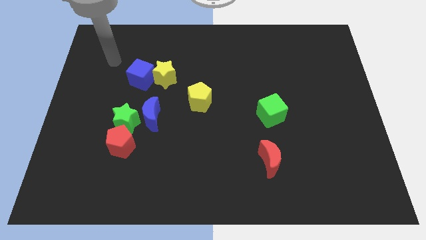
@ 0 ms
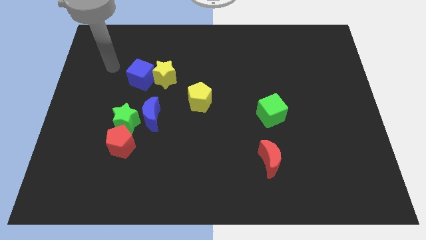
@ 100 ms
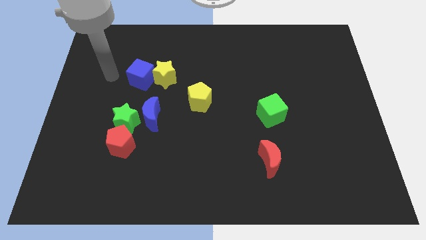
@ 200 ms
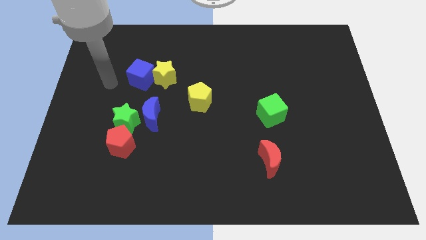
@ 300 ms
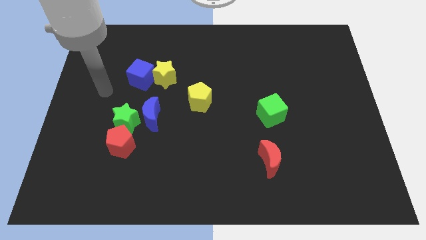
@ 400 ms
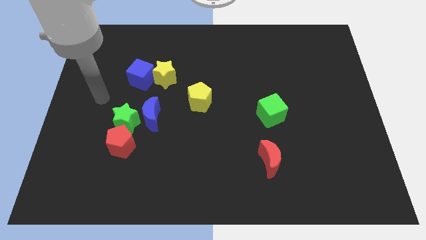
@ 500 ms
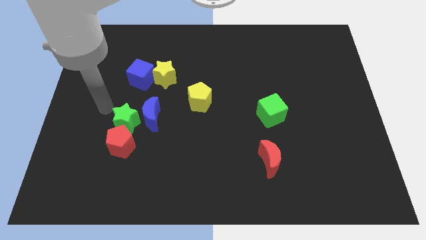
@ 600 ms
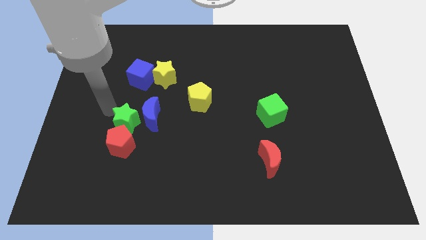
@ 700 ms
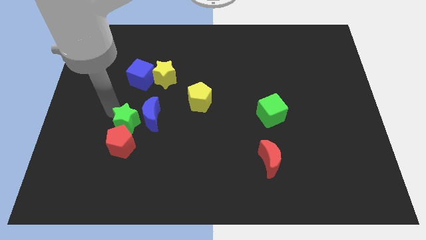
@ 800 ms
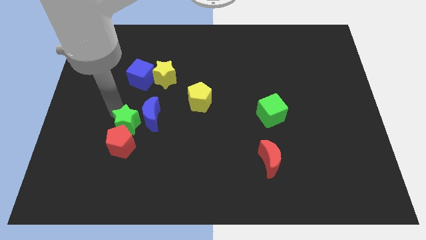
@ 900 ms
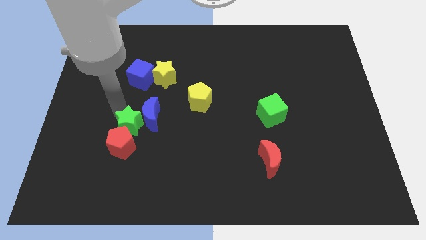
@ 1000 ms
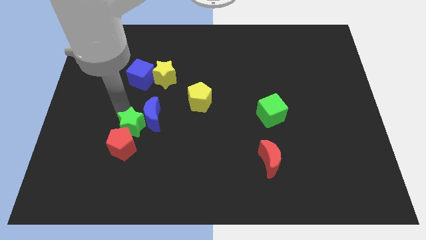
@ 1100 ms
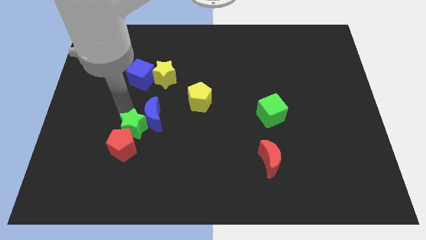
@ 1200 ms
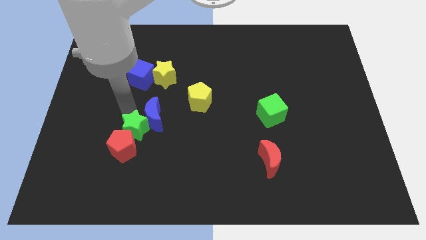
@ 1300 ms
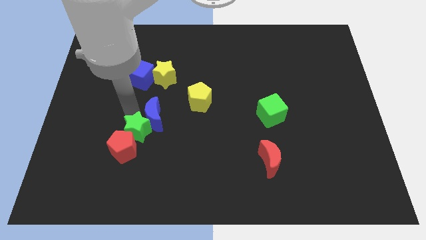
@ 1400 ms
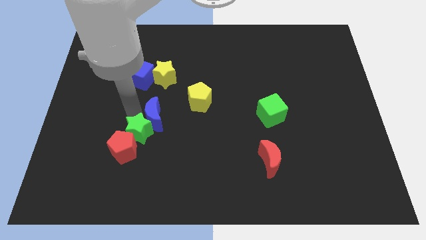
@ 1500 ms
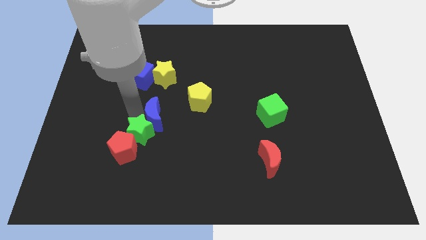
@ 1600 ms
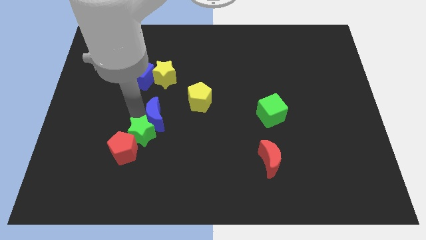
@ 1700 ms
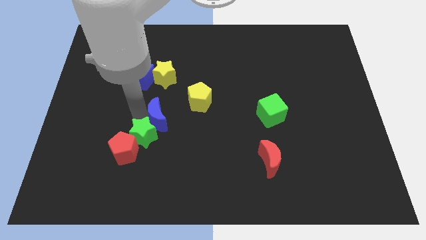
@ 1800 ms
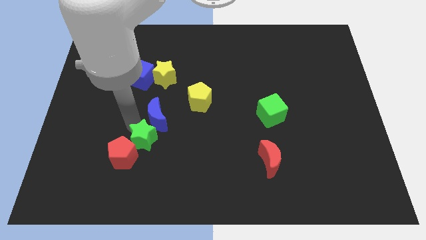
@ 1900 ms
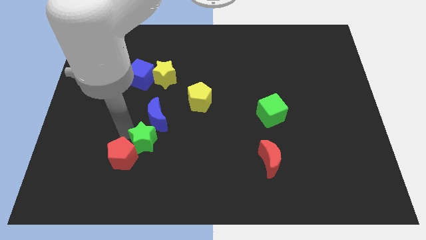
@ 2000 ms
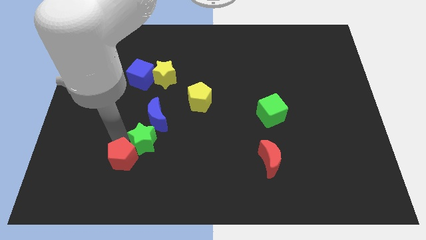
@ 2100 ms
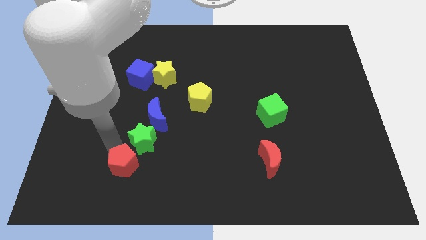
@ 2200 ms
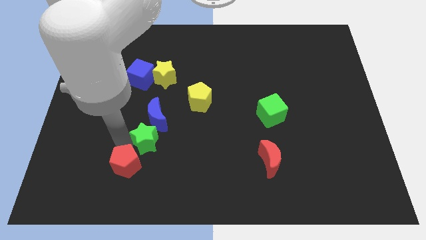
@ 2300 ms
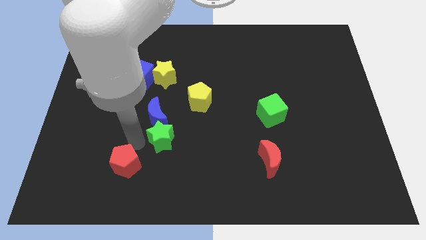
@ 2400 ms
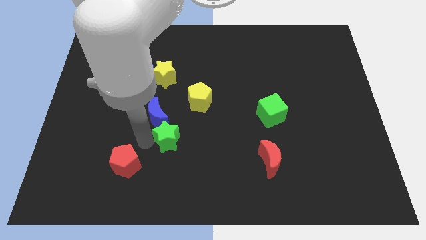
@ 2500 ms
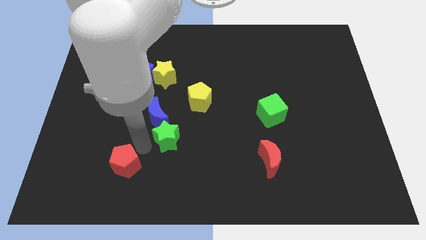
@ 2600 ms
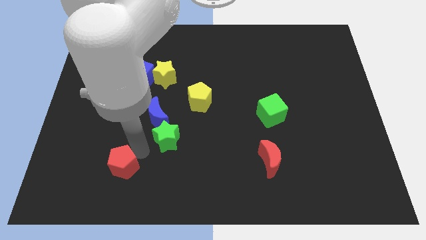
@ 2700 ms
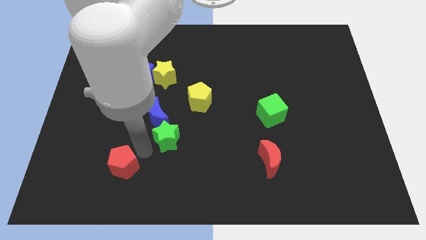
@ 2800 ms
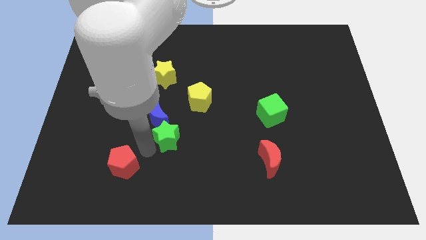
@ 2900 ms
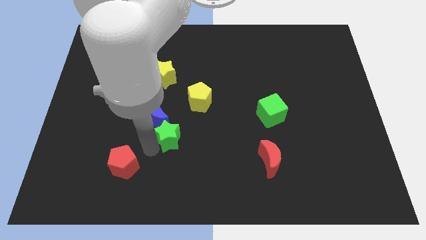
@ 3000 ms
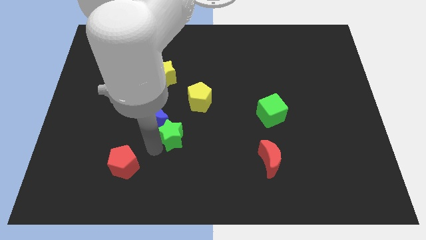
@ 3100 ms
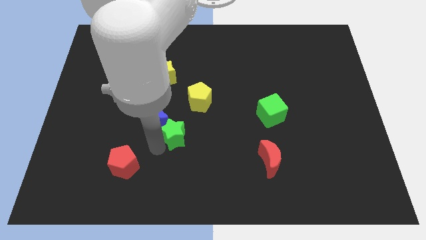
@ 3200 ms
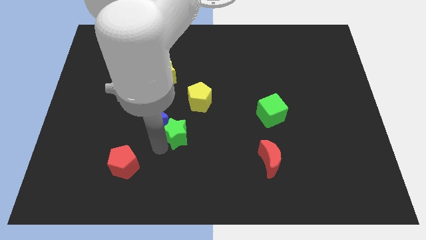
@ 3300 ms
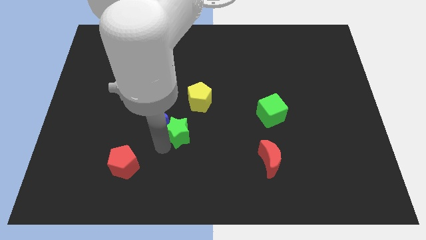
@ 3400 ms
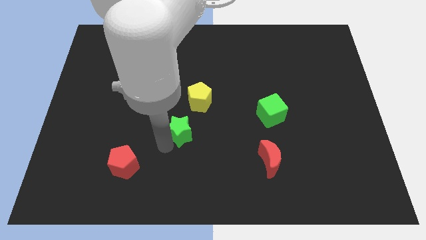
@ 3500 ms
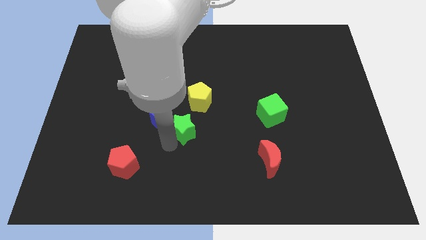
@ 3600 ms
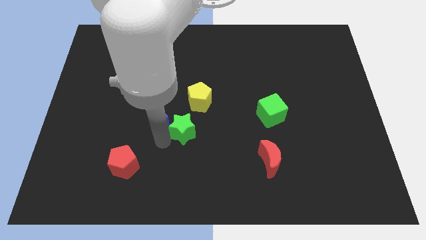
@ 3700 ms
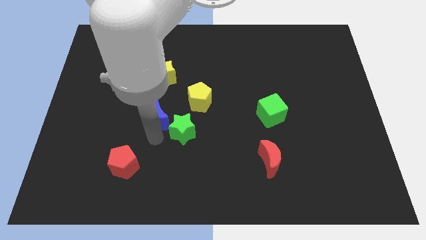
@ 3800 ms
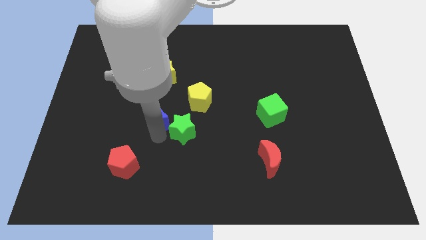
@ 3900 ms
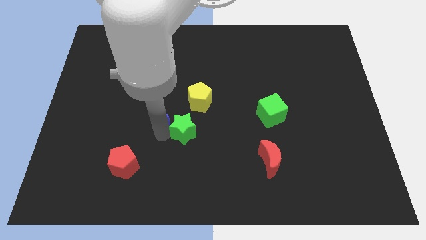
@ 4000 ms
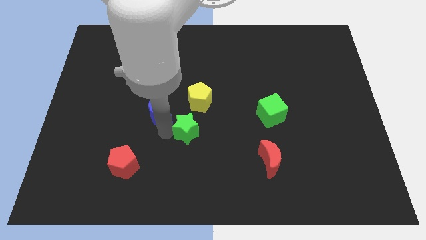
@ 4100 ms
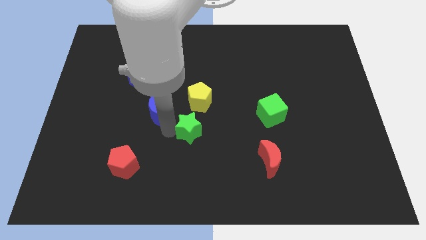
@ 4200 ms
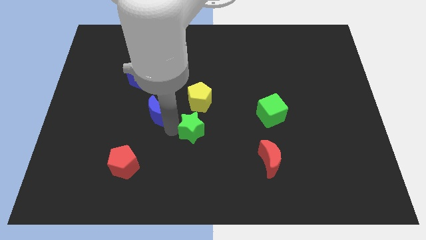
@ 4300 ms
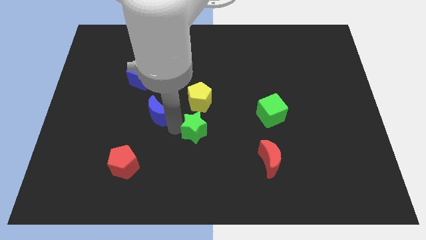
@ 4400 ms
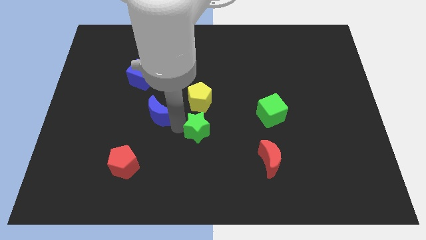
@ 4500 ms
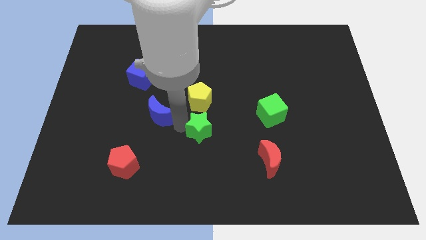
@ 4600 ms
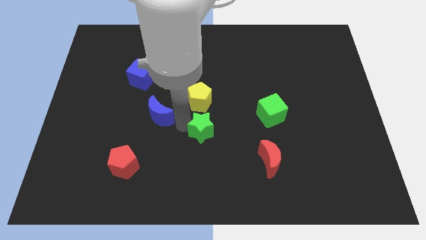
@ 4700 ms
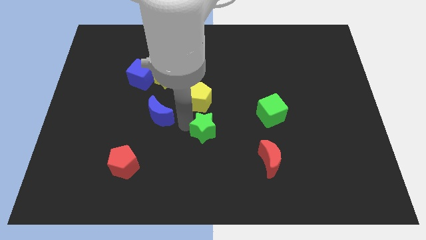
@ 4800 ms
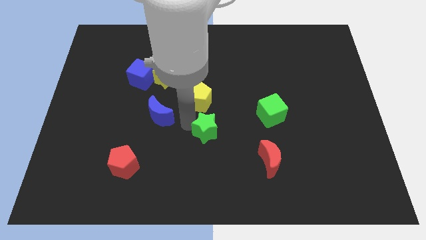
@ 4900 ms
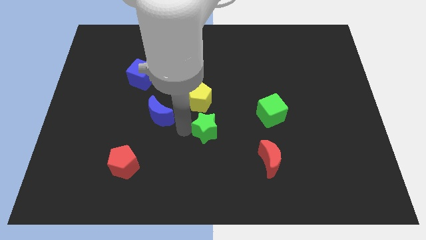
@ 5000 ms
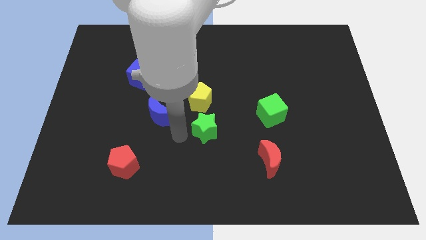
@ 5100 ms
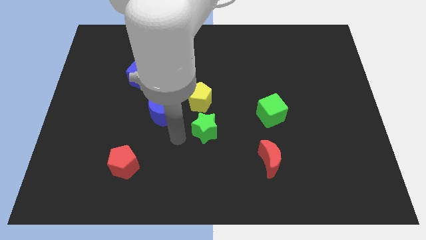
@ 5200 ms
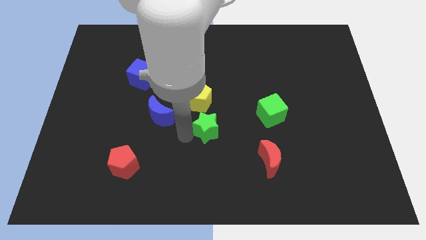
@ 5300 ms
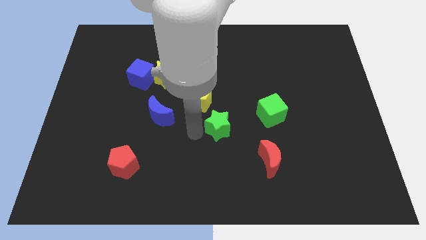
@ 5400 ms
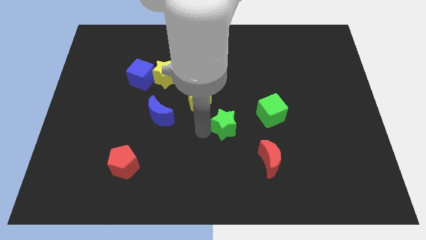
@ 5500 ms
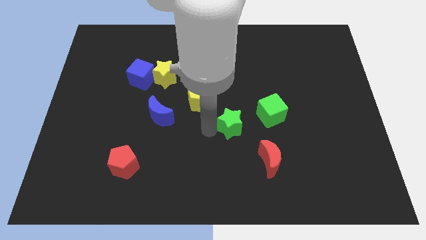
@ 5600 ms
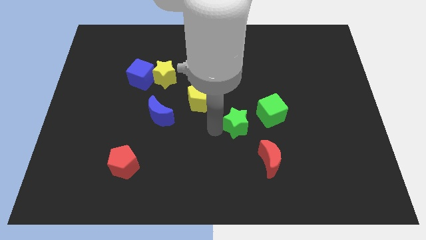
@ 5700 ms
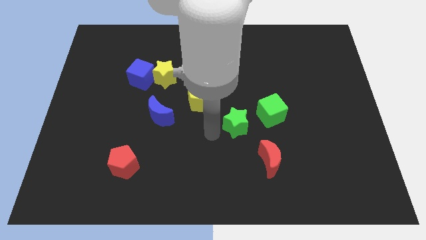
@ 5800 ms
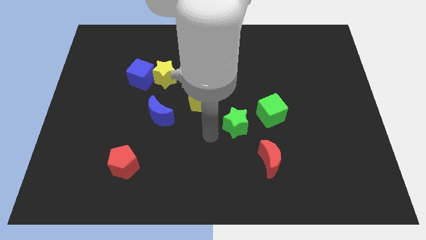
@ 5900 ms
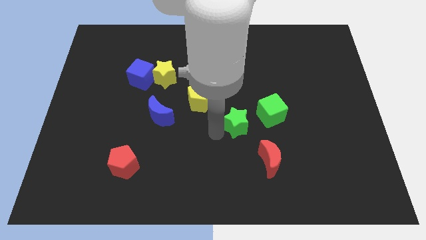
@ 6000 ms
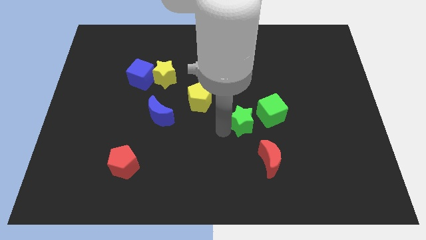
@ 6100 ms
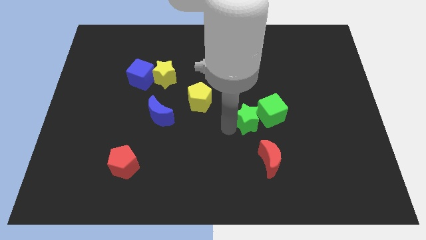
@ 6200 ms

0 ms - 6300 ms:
slide the green star next to the green cube

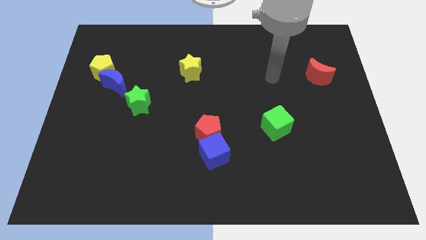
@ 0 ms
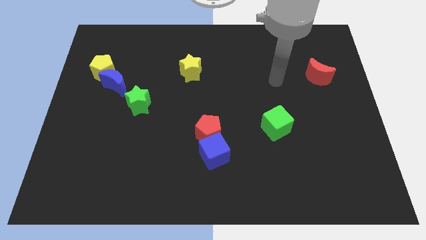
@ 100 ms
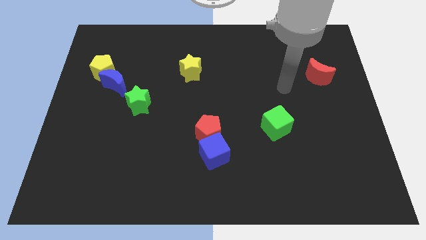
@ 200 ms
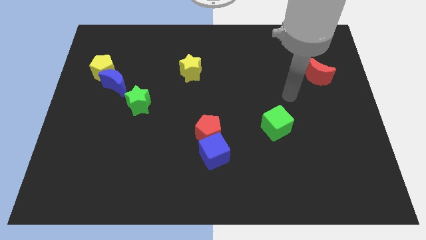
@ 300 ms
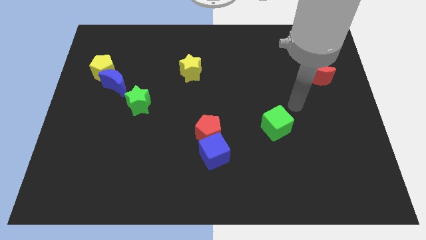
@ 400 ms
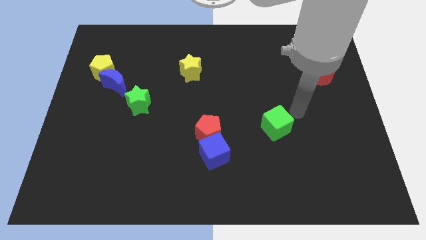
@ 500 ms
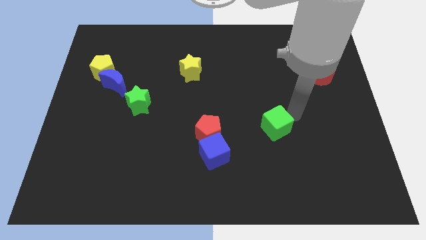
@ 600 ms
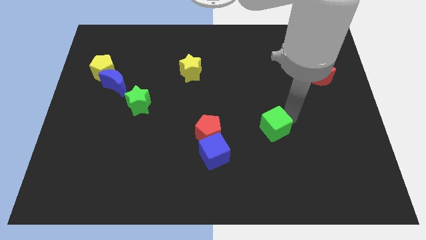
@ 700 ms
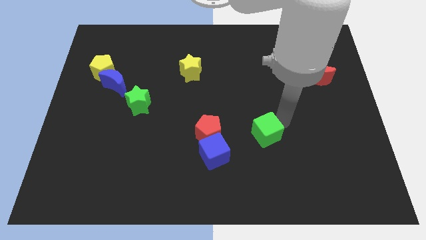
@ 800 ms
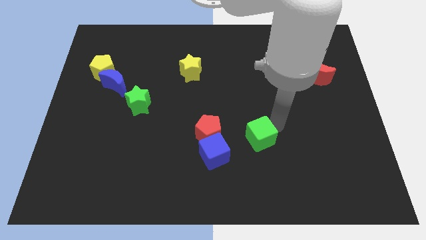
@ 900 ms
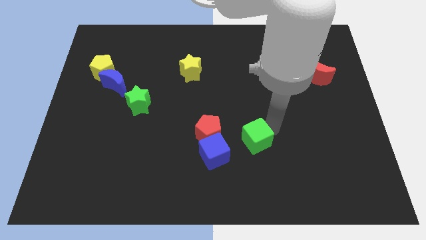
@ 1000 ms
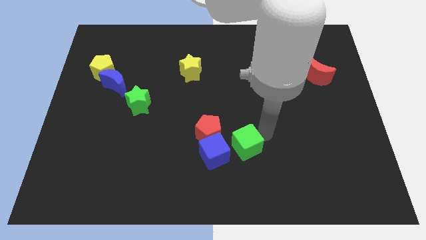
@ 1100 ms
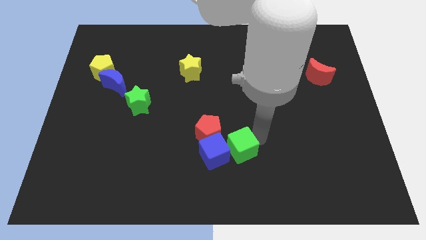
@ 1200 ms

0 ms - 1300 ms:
slide the green cube towards the blue cube
